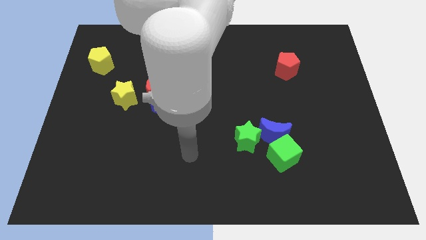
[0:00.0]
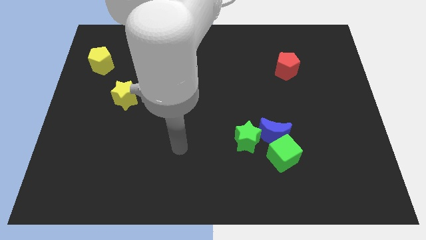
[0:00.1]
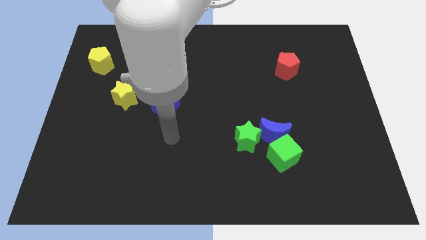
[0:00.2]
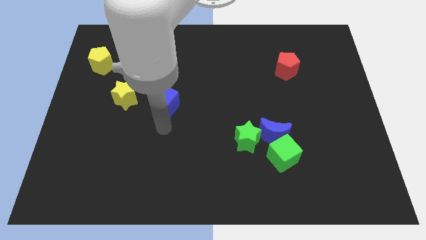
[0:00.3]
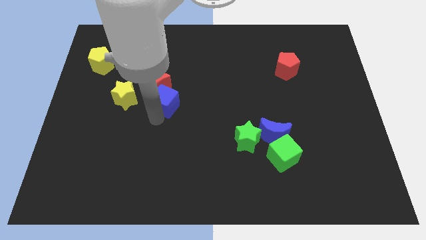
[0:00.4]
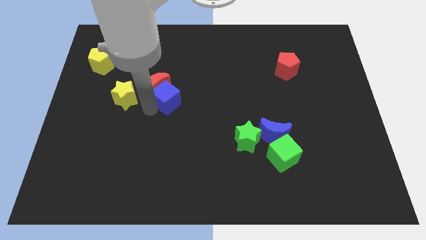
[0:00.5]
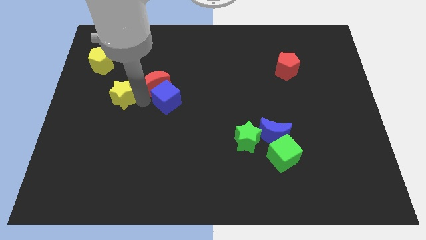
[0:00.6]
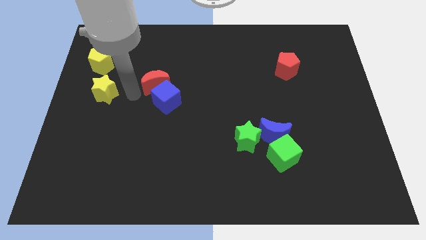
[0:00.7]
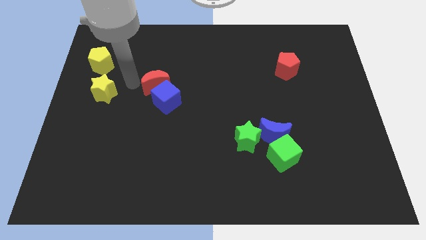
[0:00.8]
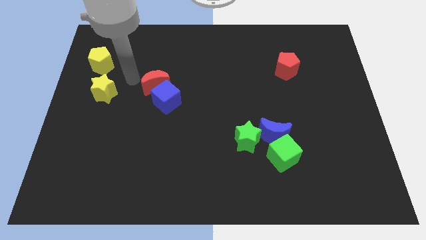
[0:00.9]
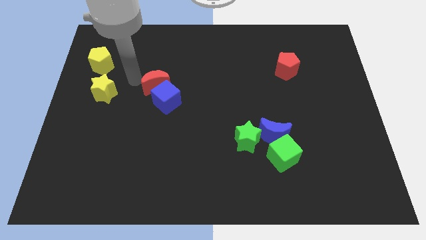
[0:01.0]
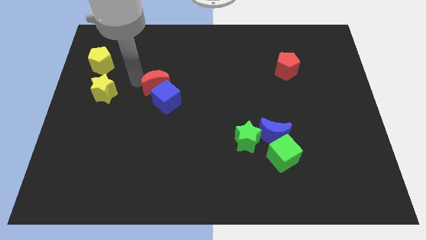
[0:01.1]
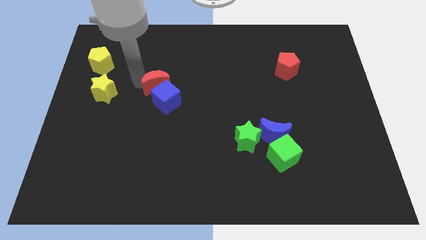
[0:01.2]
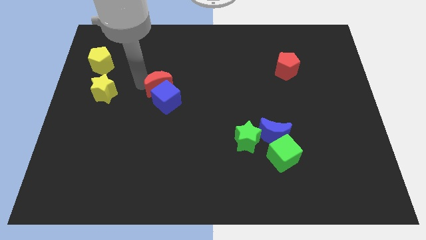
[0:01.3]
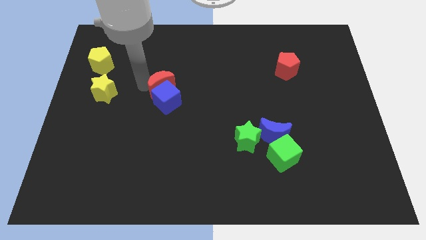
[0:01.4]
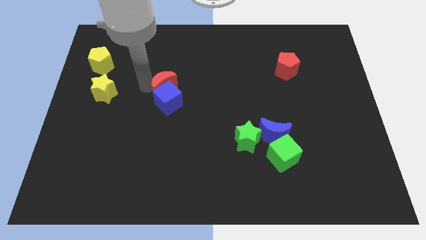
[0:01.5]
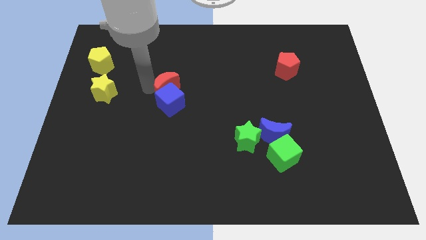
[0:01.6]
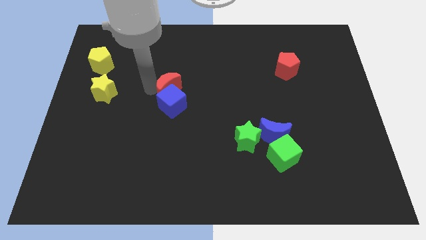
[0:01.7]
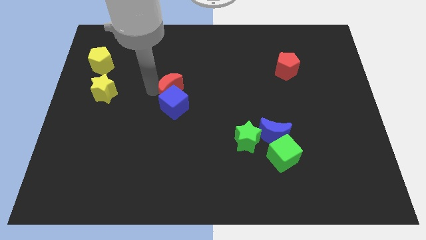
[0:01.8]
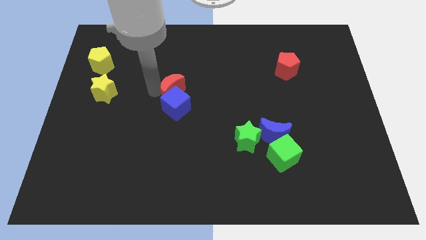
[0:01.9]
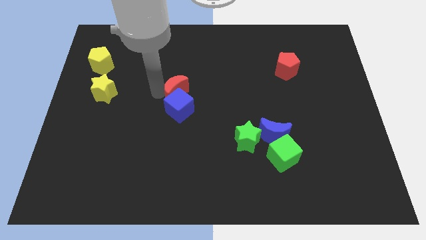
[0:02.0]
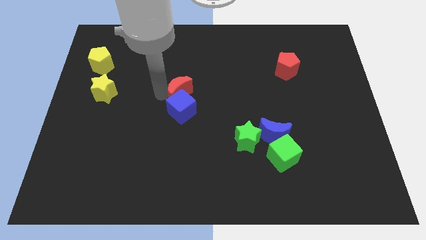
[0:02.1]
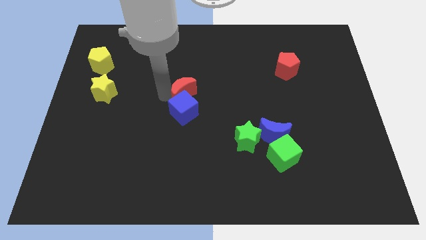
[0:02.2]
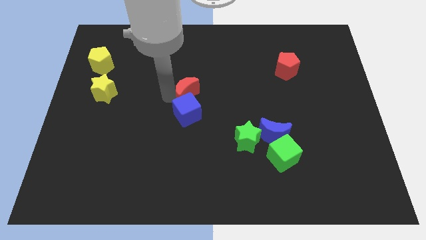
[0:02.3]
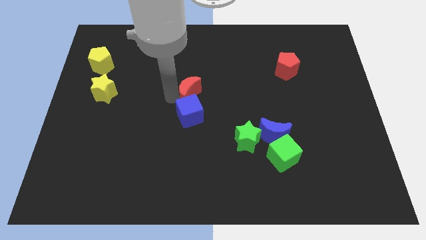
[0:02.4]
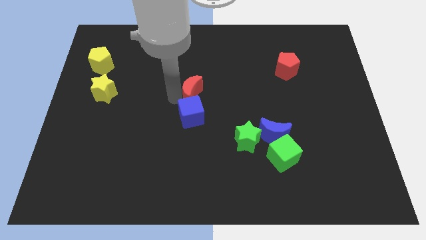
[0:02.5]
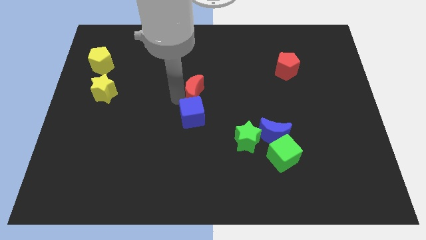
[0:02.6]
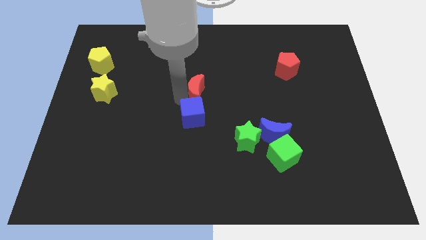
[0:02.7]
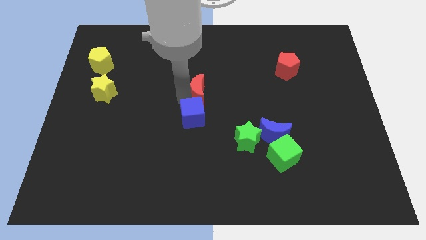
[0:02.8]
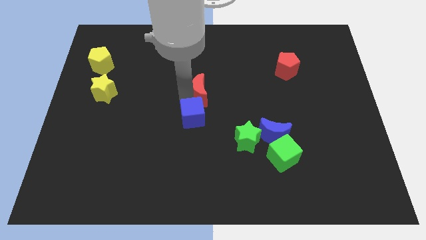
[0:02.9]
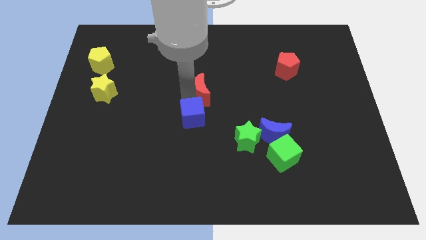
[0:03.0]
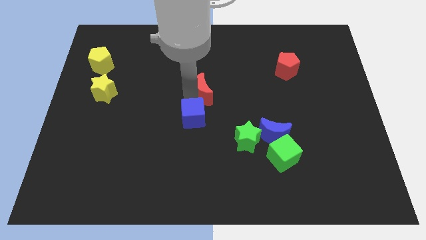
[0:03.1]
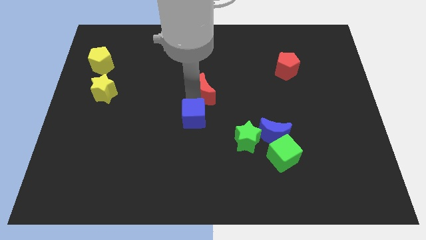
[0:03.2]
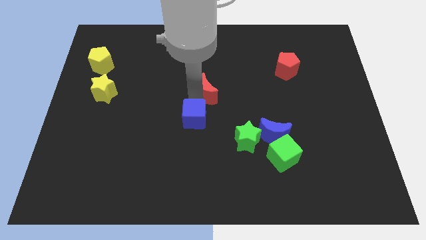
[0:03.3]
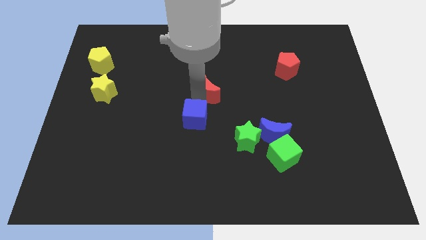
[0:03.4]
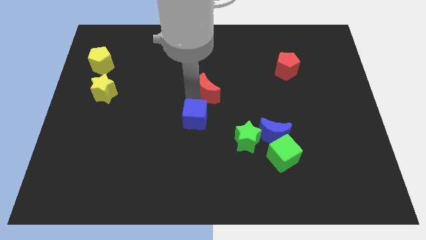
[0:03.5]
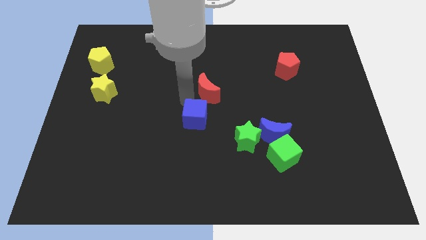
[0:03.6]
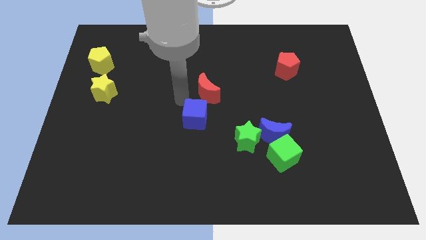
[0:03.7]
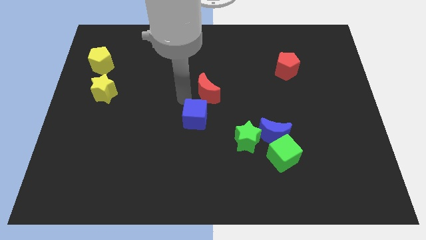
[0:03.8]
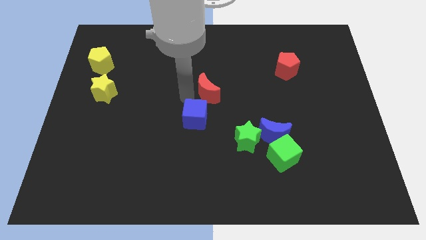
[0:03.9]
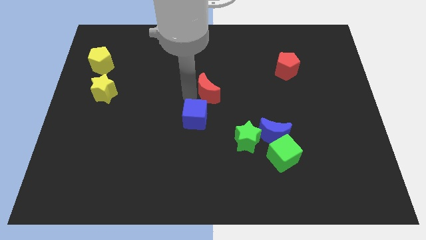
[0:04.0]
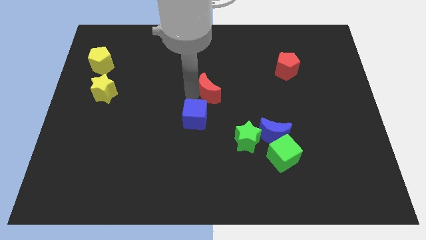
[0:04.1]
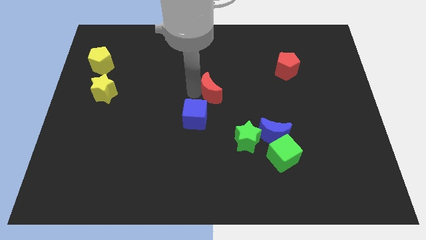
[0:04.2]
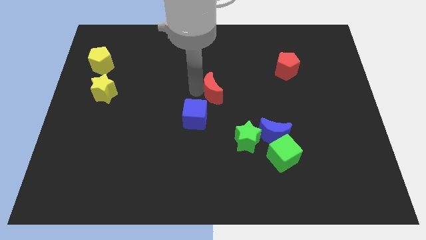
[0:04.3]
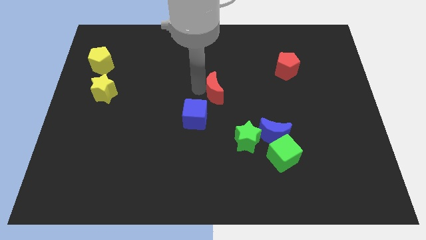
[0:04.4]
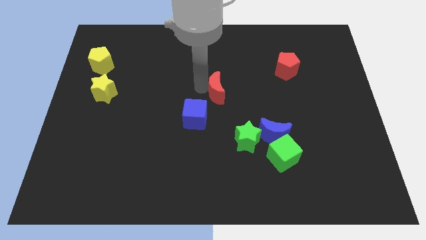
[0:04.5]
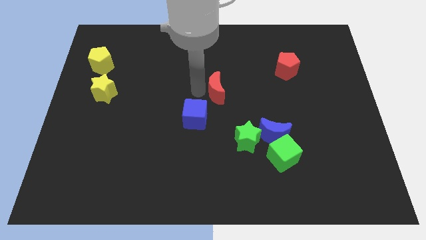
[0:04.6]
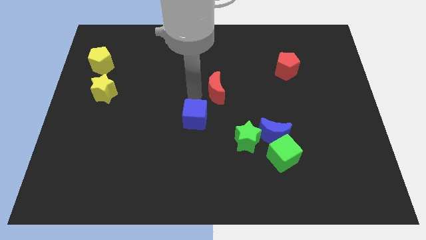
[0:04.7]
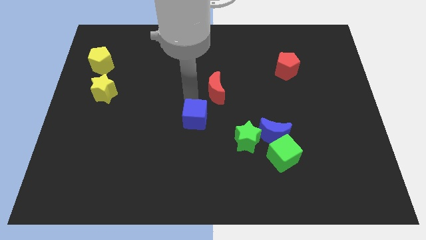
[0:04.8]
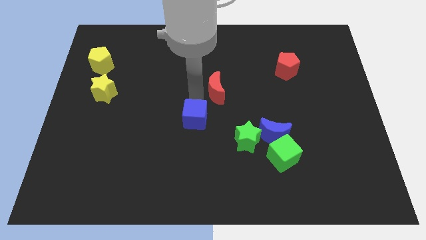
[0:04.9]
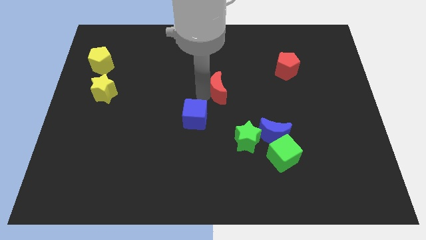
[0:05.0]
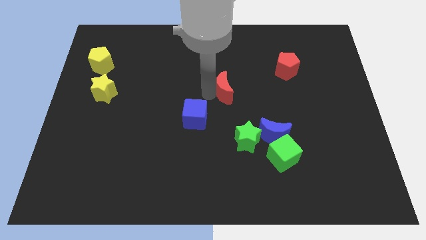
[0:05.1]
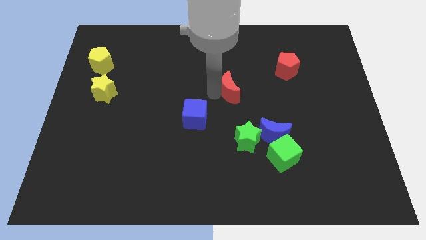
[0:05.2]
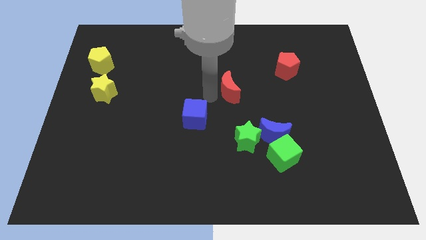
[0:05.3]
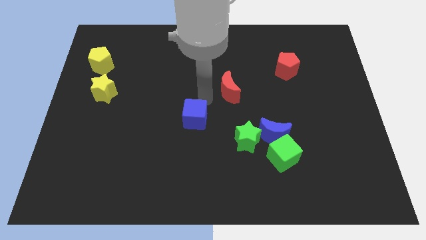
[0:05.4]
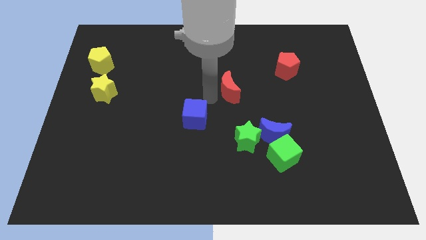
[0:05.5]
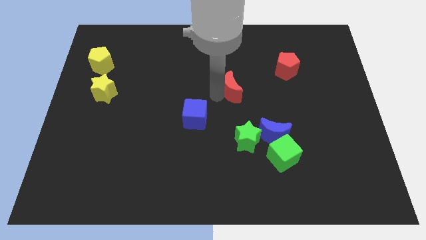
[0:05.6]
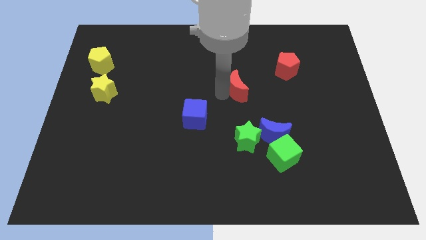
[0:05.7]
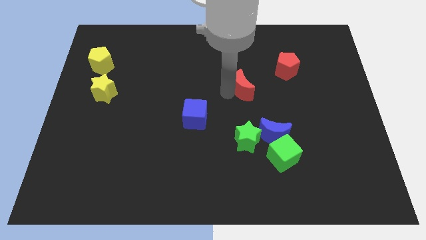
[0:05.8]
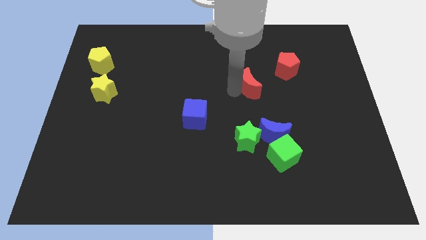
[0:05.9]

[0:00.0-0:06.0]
put the red moon diagonally down and to the left of the red pentagon

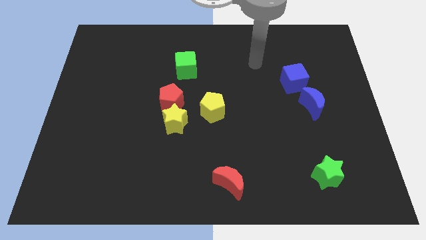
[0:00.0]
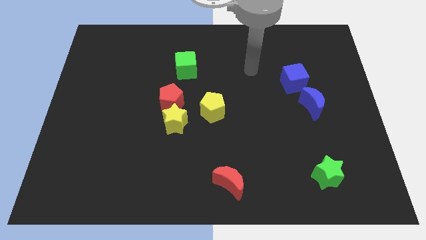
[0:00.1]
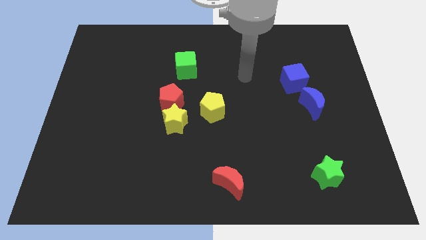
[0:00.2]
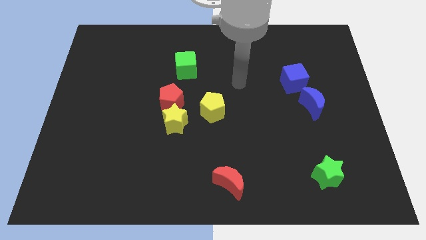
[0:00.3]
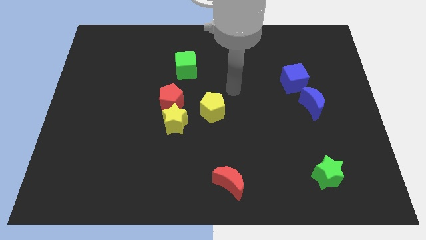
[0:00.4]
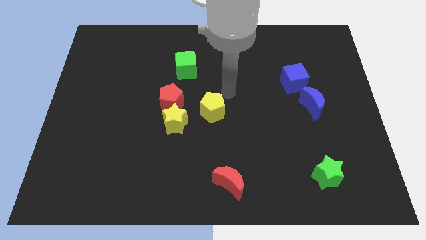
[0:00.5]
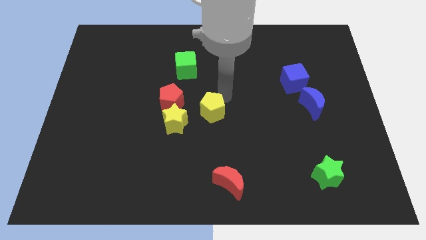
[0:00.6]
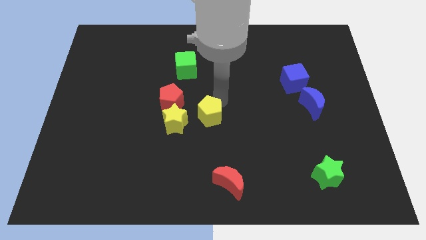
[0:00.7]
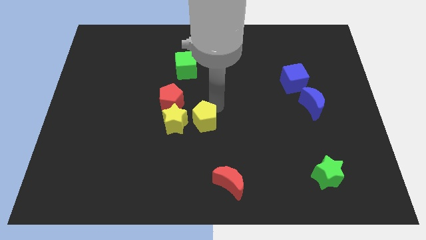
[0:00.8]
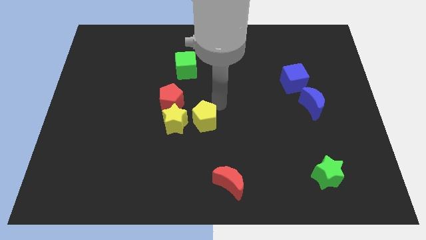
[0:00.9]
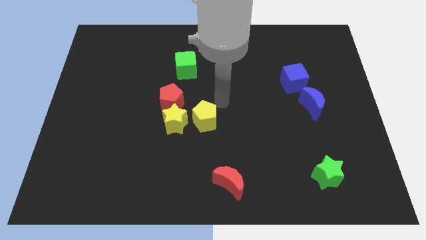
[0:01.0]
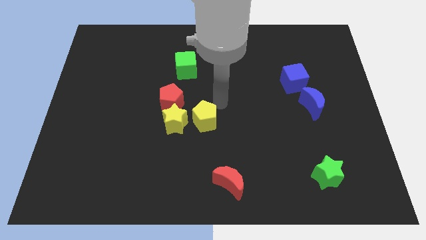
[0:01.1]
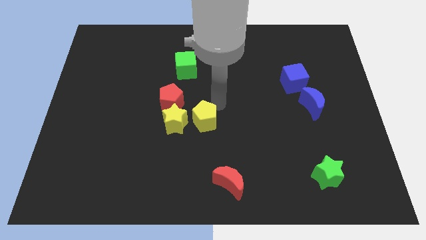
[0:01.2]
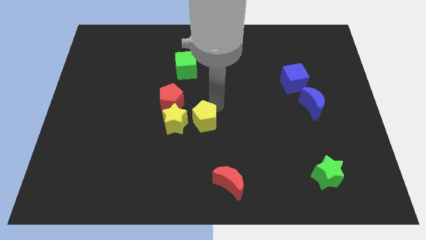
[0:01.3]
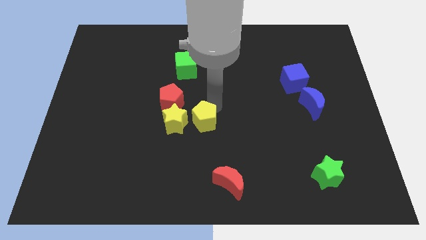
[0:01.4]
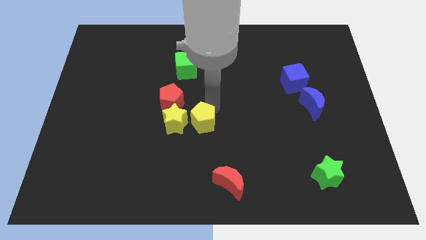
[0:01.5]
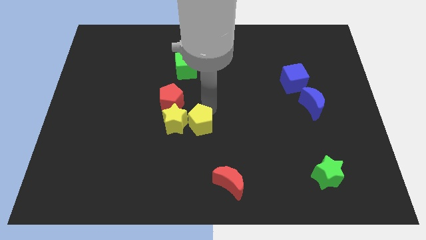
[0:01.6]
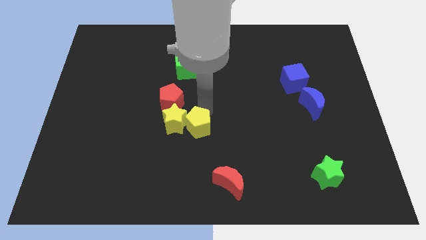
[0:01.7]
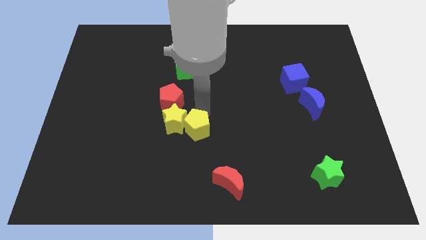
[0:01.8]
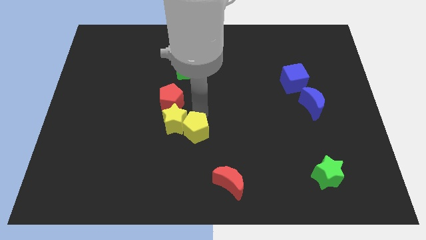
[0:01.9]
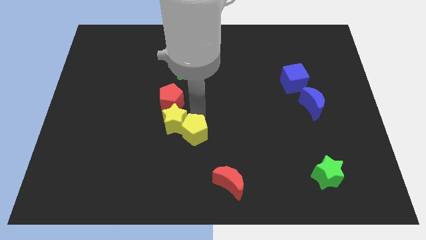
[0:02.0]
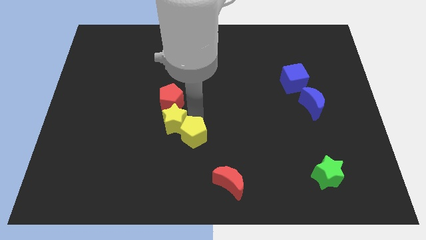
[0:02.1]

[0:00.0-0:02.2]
move the yellow pentagon below the yellow star
